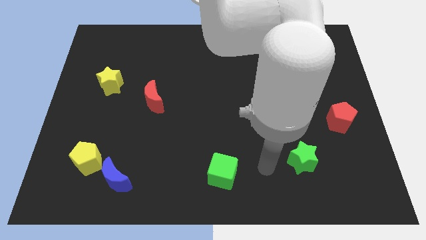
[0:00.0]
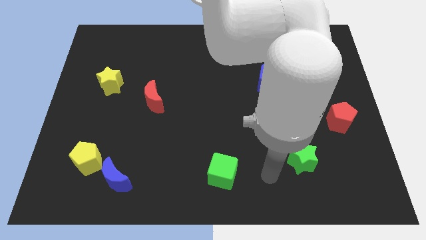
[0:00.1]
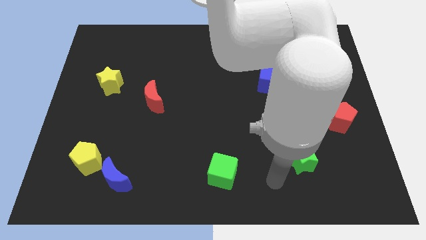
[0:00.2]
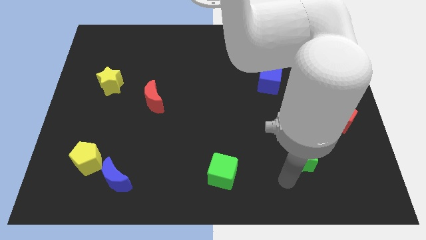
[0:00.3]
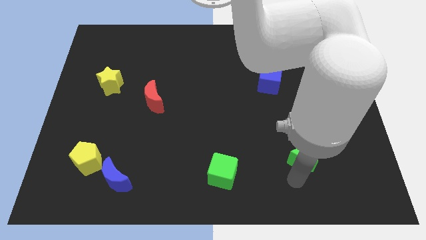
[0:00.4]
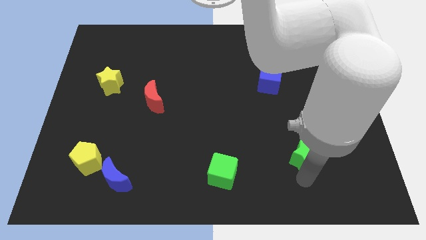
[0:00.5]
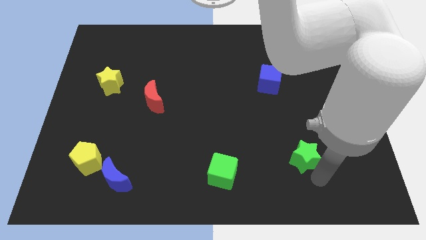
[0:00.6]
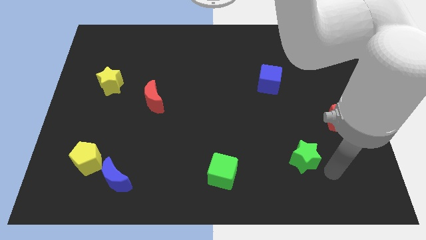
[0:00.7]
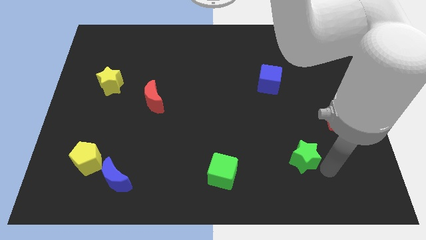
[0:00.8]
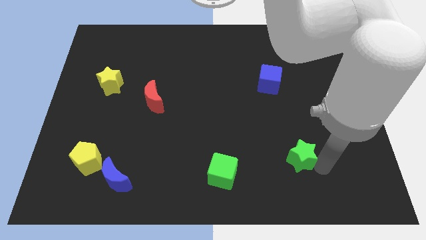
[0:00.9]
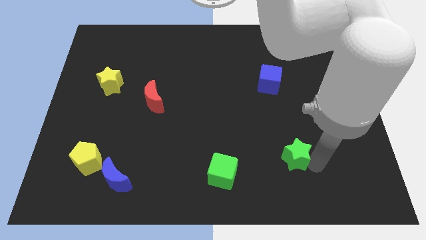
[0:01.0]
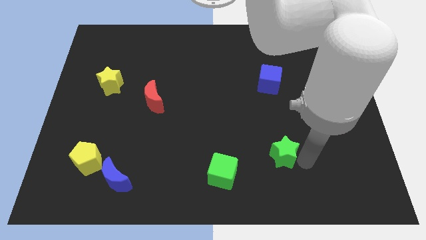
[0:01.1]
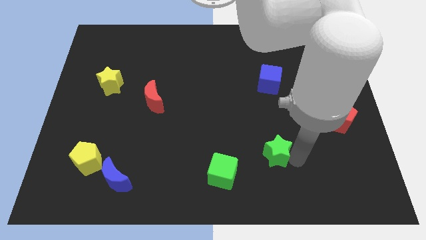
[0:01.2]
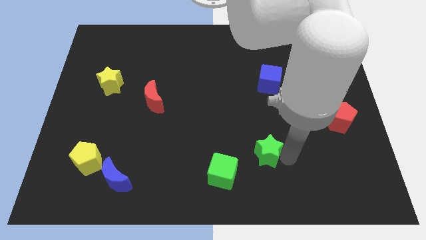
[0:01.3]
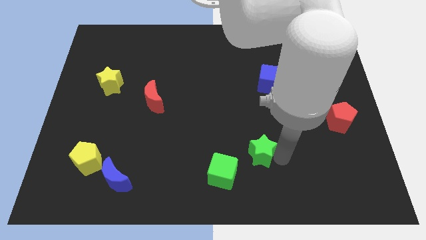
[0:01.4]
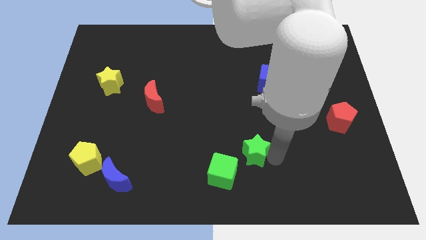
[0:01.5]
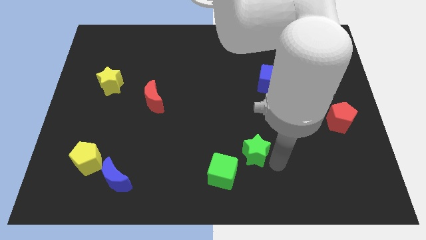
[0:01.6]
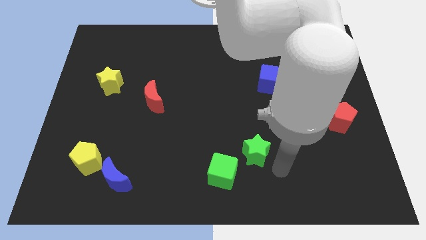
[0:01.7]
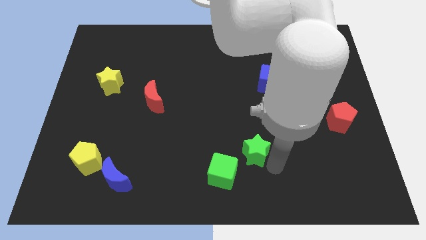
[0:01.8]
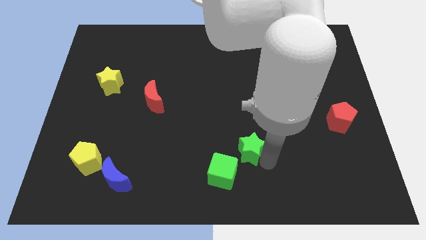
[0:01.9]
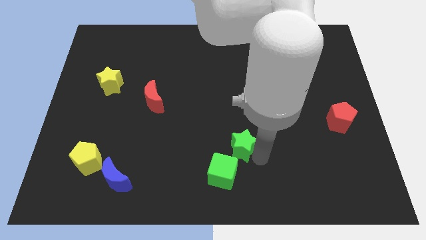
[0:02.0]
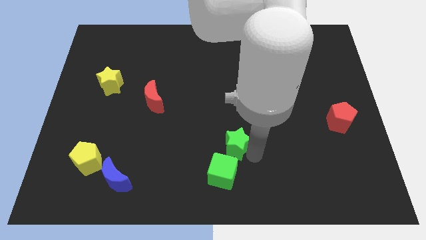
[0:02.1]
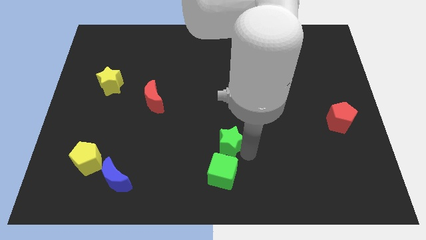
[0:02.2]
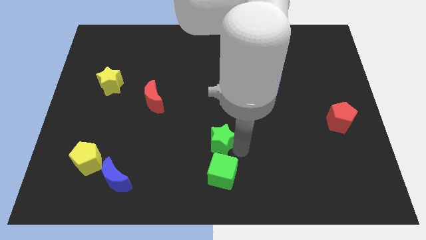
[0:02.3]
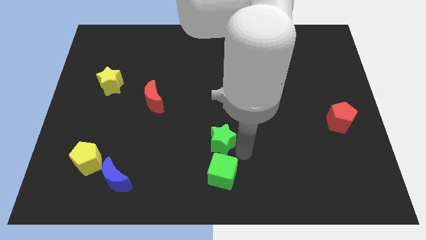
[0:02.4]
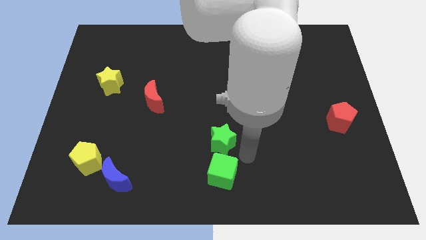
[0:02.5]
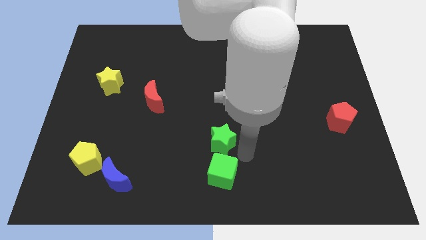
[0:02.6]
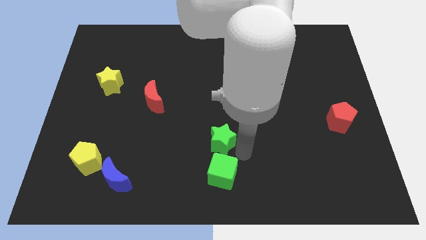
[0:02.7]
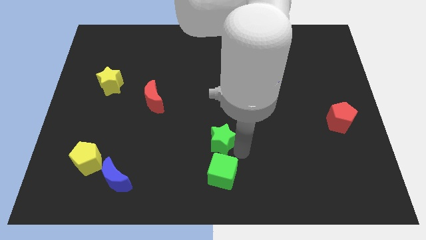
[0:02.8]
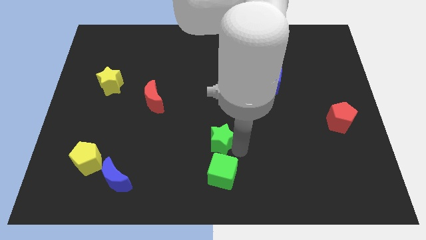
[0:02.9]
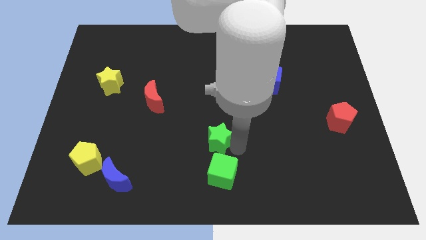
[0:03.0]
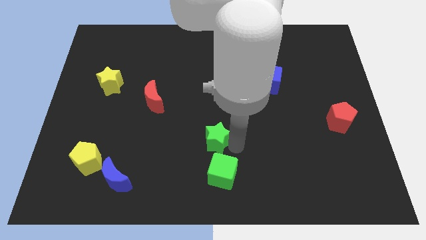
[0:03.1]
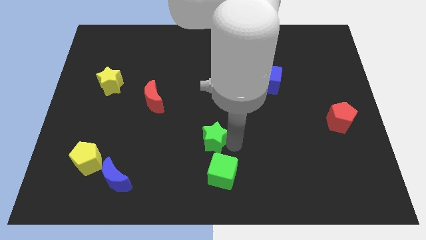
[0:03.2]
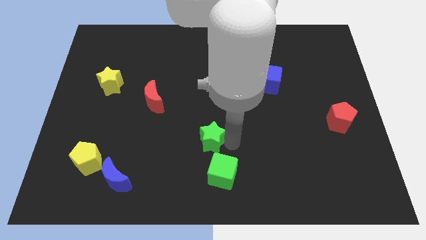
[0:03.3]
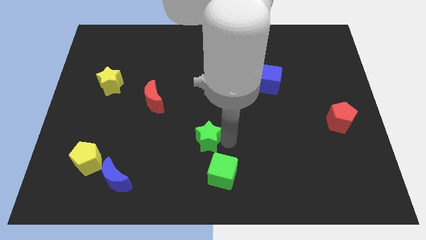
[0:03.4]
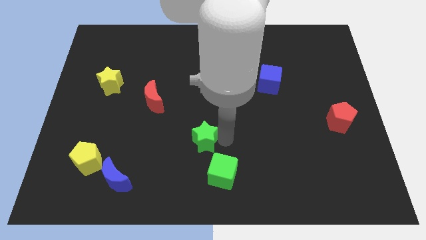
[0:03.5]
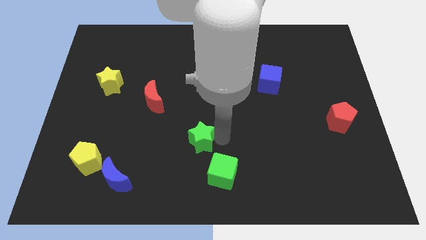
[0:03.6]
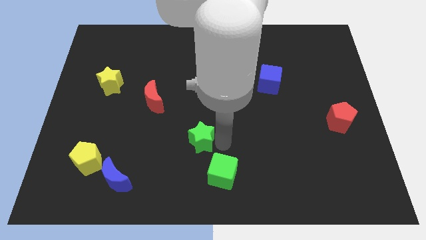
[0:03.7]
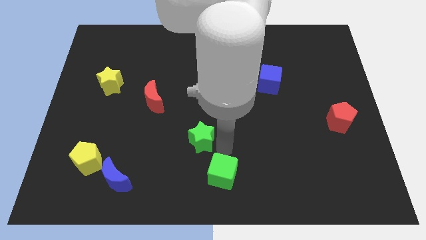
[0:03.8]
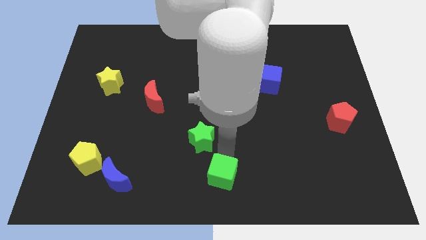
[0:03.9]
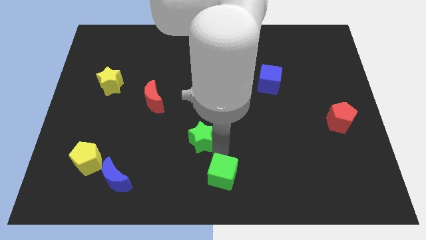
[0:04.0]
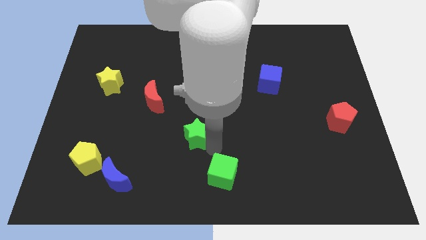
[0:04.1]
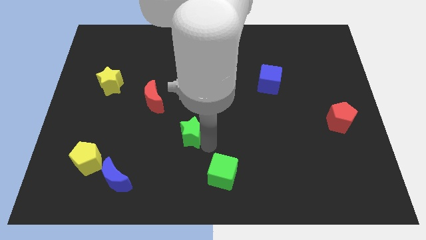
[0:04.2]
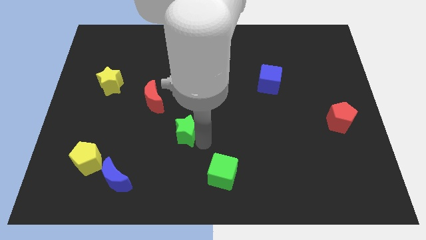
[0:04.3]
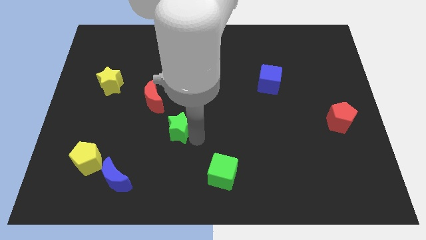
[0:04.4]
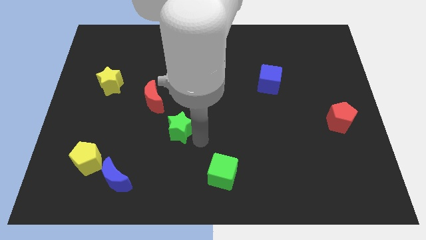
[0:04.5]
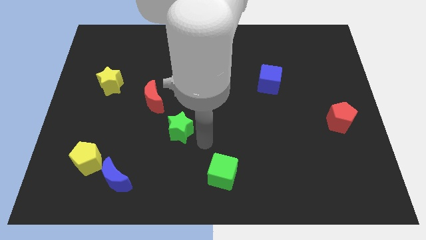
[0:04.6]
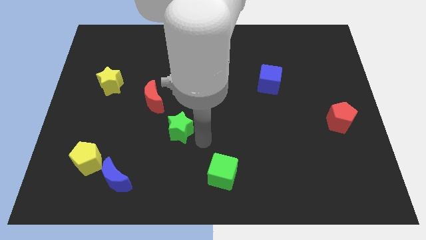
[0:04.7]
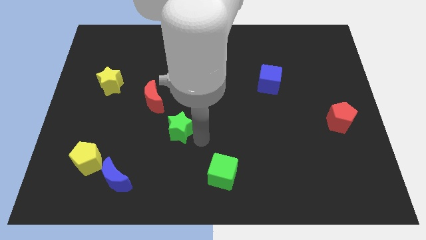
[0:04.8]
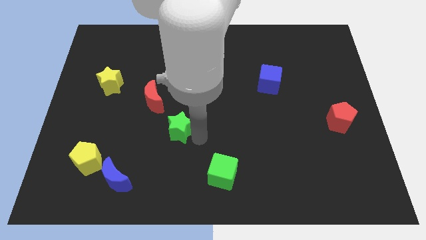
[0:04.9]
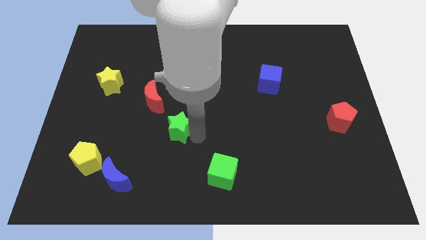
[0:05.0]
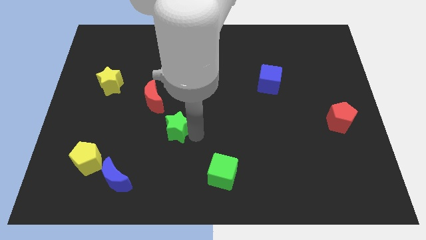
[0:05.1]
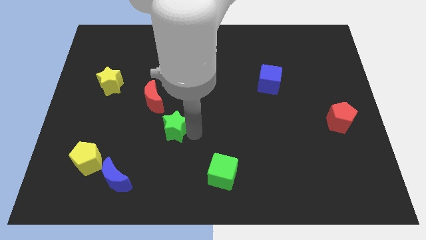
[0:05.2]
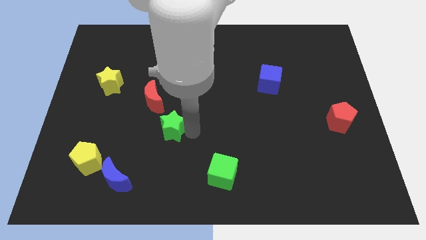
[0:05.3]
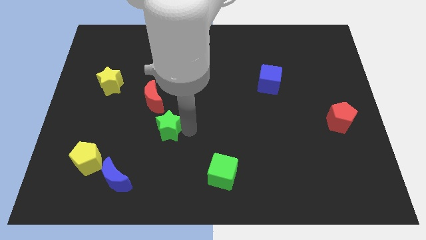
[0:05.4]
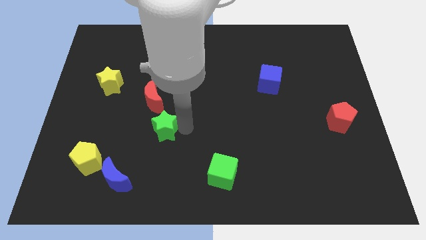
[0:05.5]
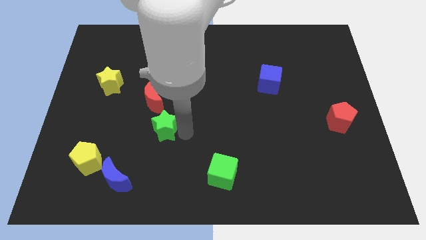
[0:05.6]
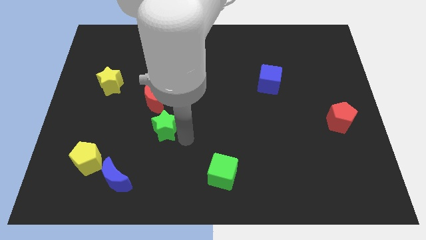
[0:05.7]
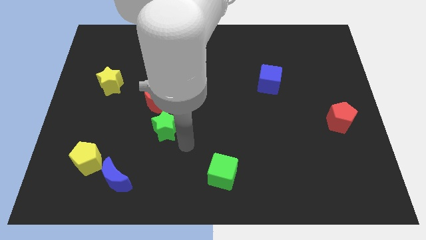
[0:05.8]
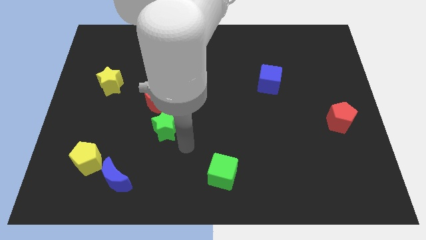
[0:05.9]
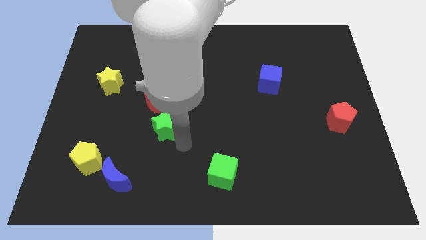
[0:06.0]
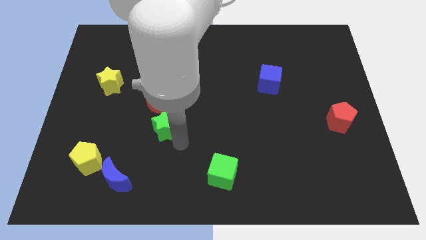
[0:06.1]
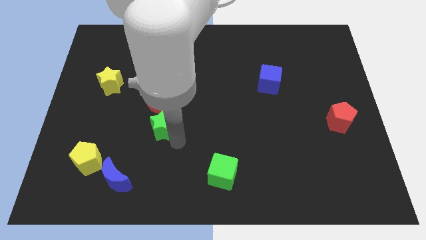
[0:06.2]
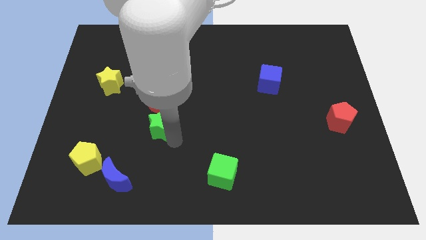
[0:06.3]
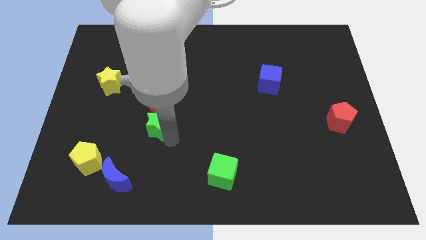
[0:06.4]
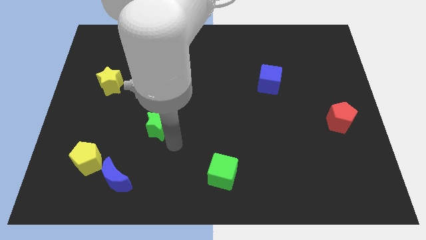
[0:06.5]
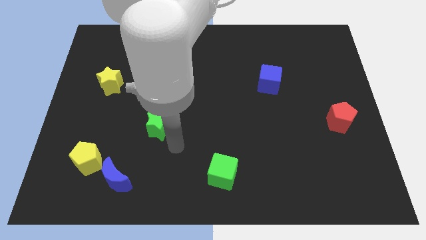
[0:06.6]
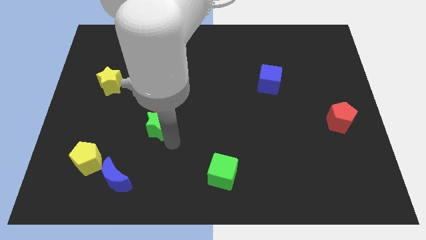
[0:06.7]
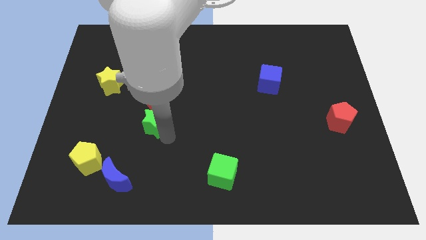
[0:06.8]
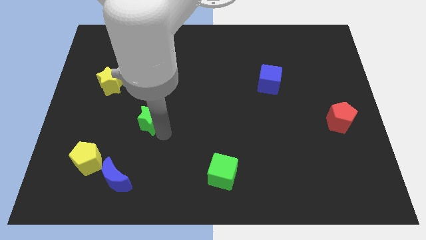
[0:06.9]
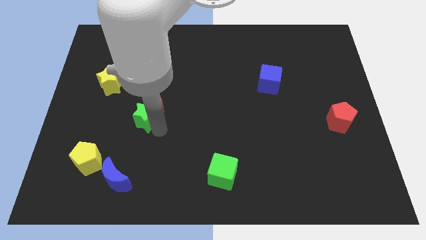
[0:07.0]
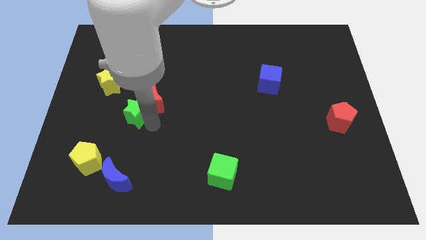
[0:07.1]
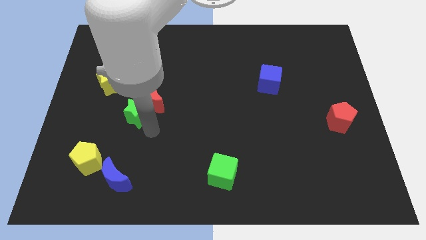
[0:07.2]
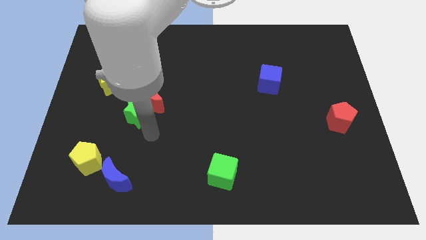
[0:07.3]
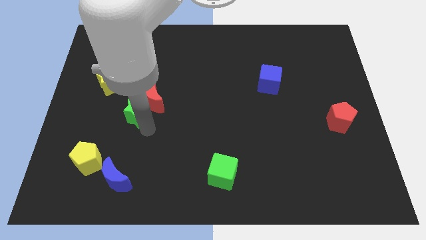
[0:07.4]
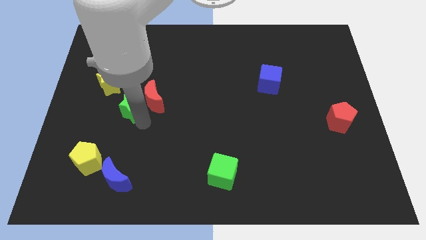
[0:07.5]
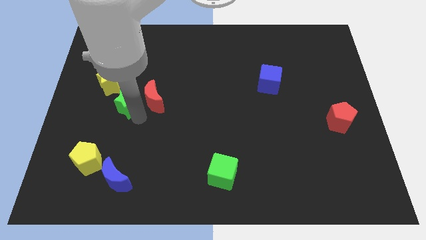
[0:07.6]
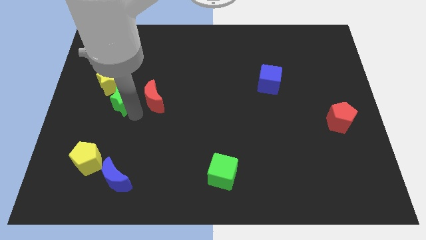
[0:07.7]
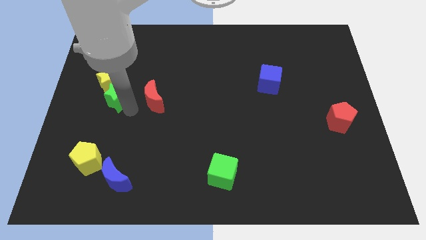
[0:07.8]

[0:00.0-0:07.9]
move the green star towards the yellow star
